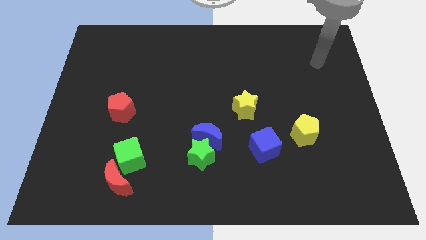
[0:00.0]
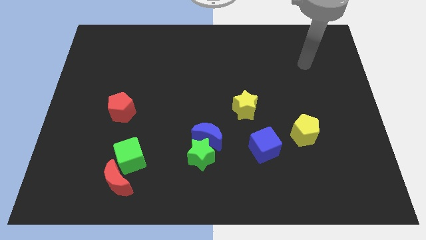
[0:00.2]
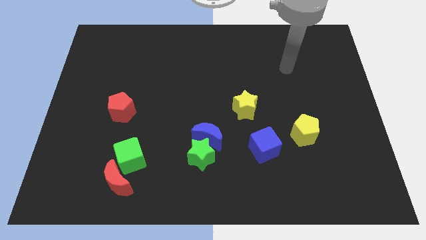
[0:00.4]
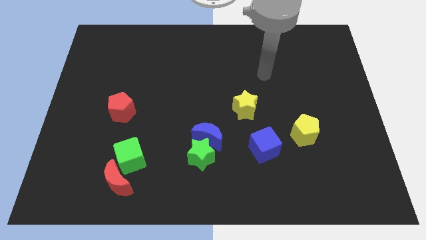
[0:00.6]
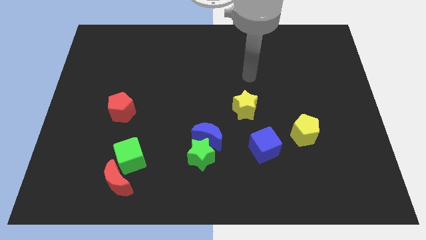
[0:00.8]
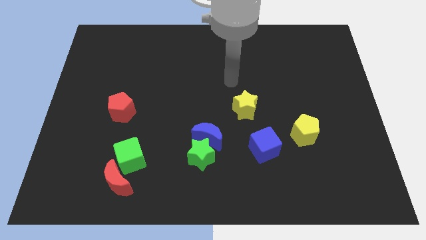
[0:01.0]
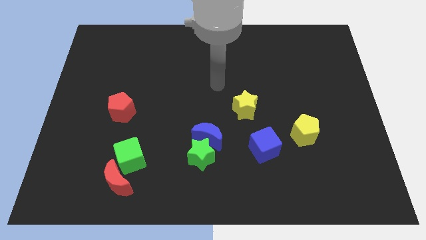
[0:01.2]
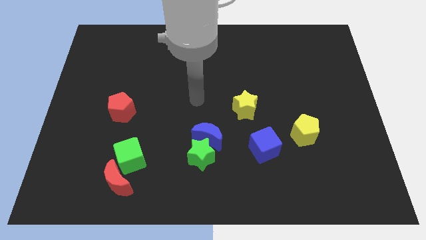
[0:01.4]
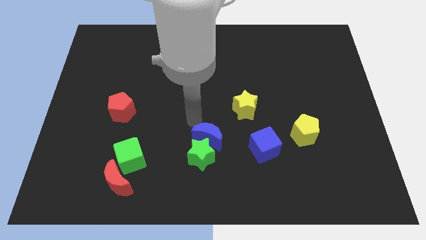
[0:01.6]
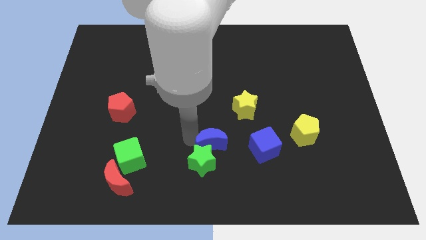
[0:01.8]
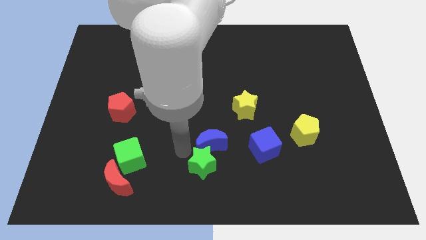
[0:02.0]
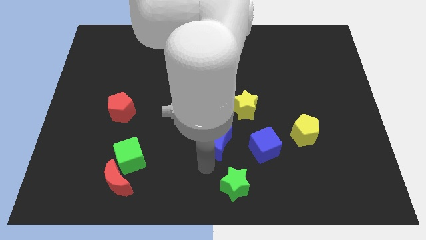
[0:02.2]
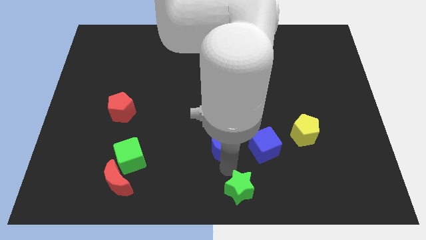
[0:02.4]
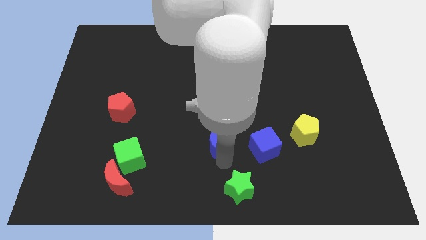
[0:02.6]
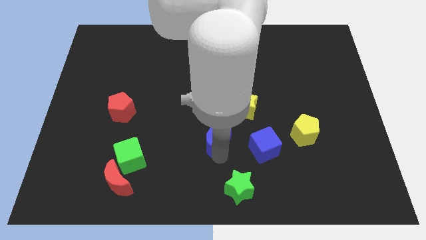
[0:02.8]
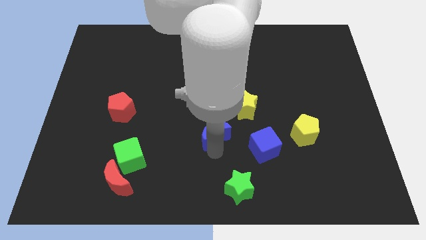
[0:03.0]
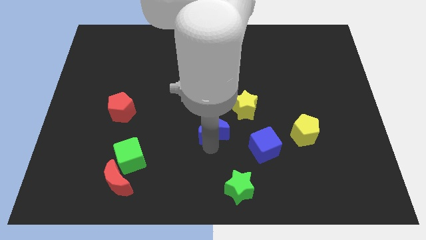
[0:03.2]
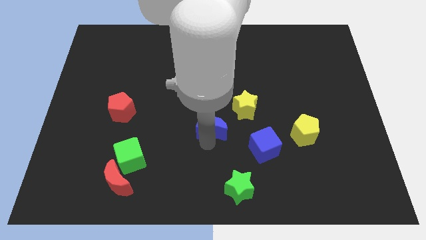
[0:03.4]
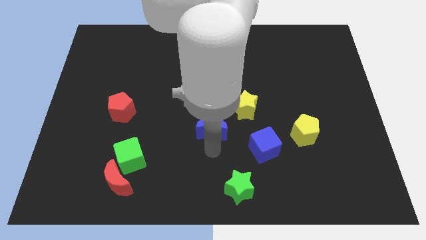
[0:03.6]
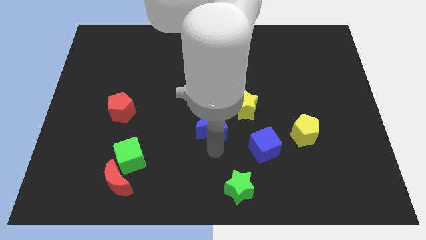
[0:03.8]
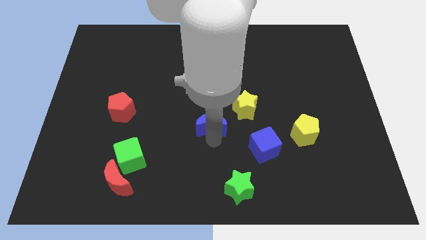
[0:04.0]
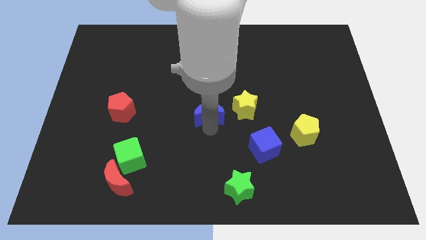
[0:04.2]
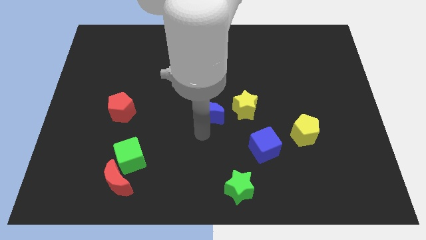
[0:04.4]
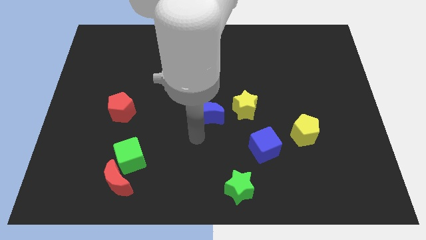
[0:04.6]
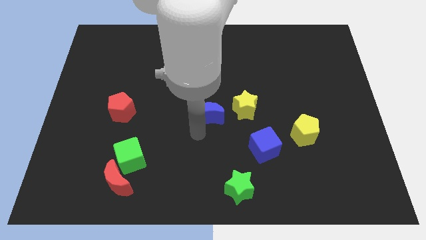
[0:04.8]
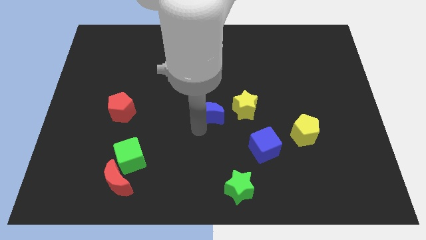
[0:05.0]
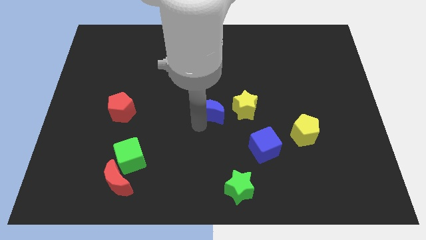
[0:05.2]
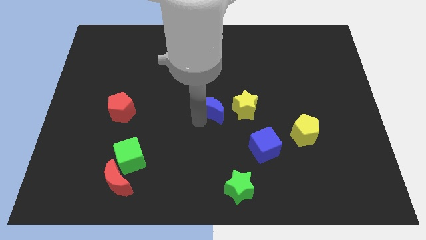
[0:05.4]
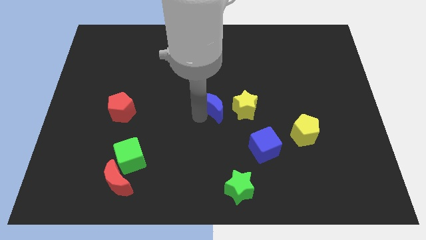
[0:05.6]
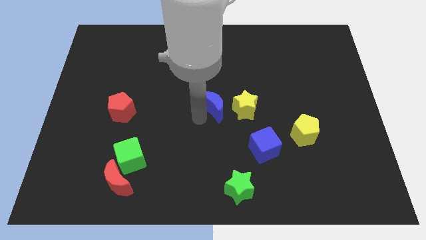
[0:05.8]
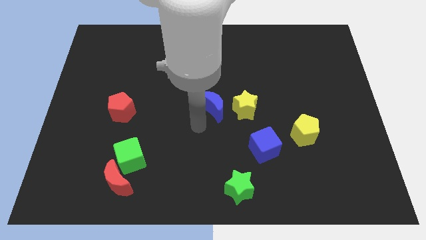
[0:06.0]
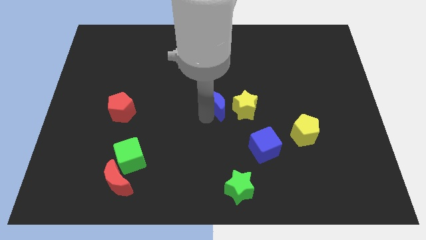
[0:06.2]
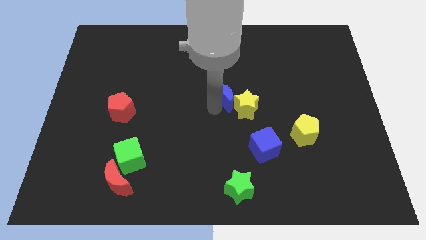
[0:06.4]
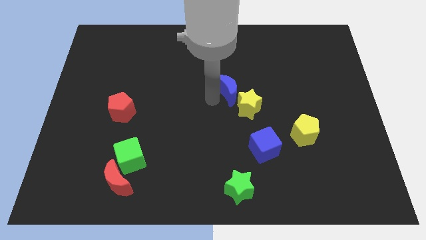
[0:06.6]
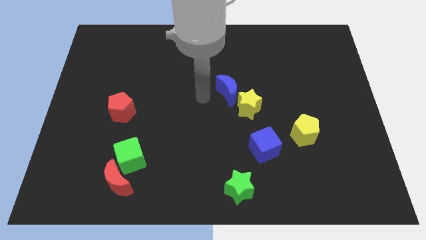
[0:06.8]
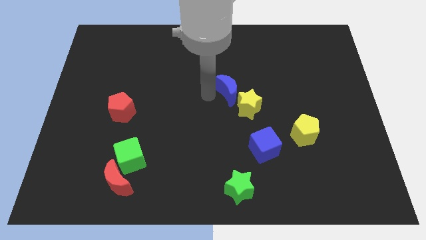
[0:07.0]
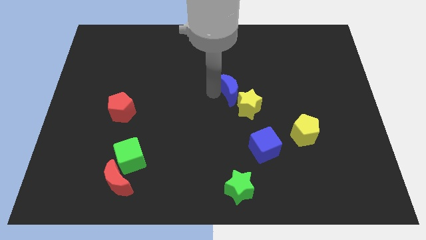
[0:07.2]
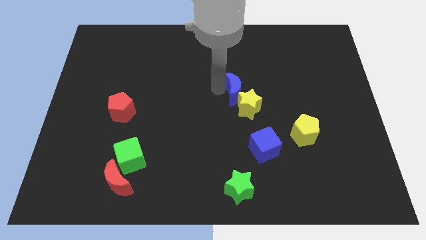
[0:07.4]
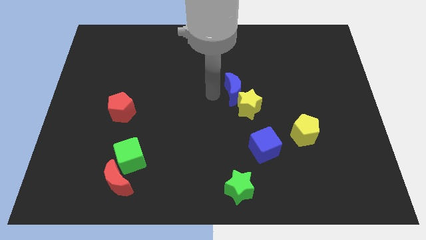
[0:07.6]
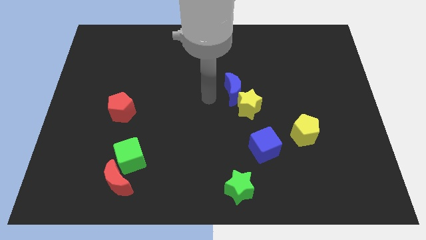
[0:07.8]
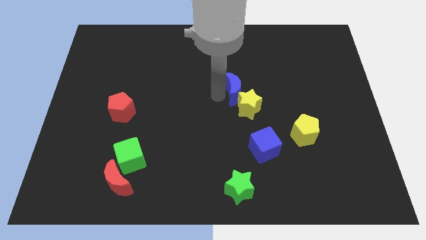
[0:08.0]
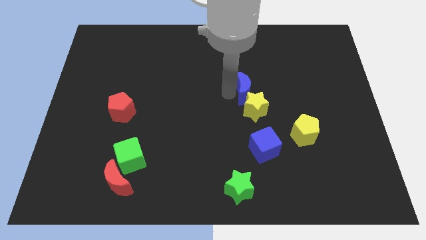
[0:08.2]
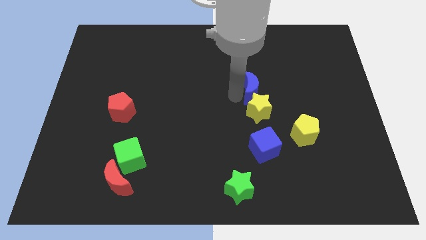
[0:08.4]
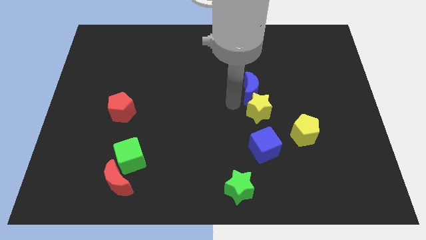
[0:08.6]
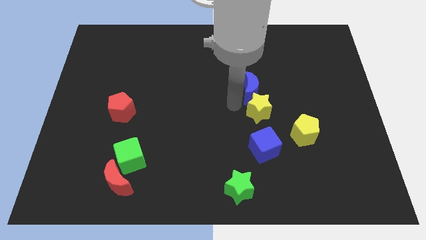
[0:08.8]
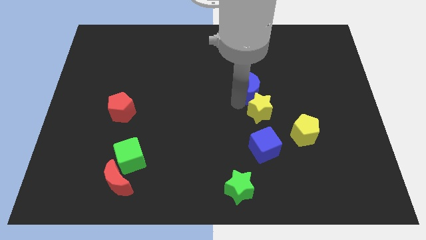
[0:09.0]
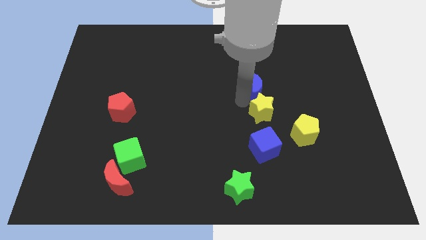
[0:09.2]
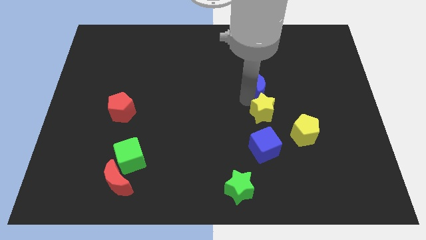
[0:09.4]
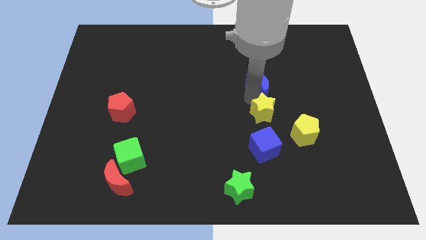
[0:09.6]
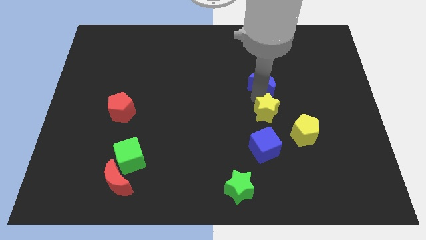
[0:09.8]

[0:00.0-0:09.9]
move the blue moon up and right

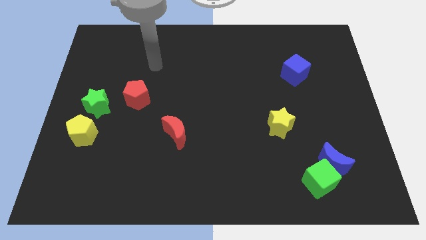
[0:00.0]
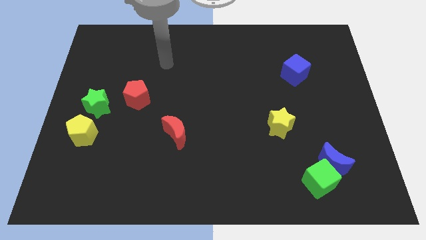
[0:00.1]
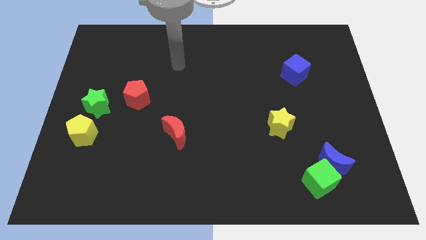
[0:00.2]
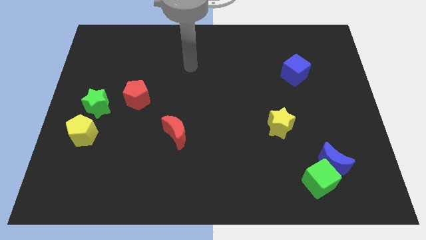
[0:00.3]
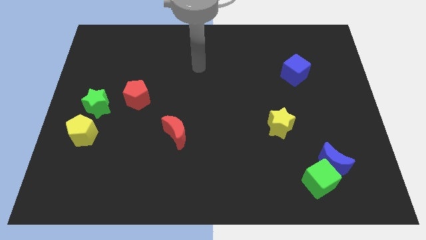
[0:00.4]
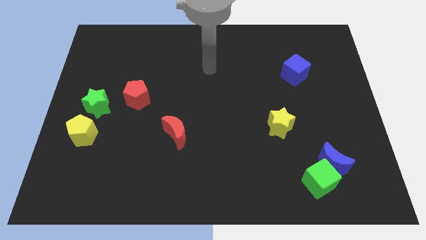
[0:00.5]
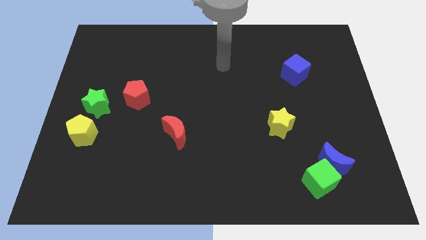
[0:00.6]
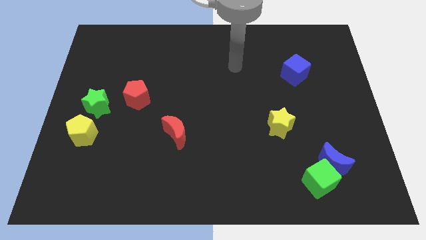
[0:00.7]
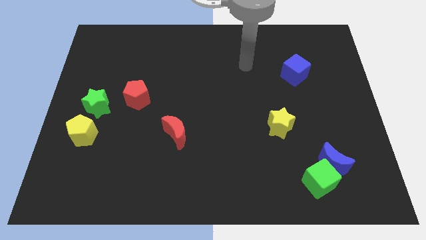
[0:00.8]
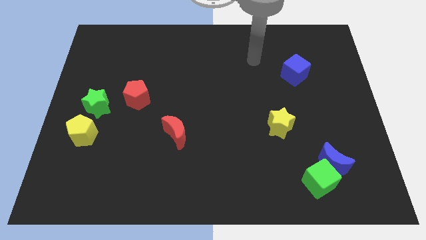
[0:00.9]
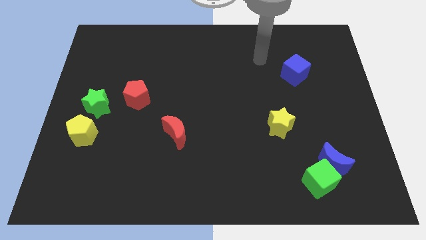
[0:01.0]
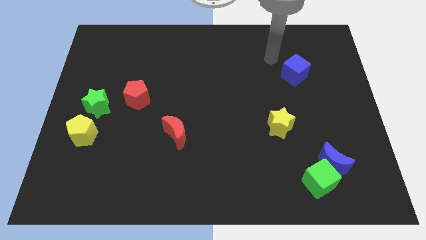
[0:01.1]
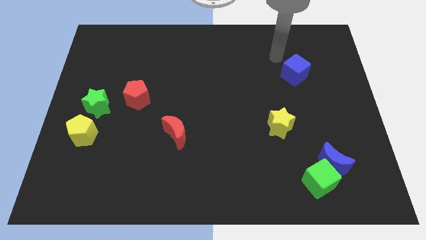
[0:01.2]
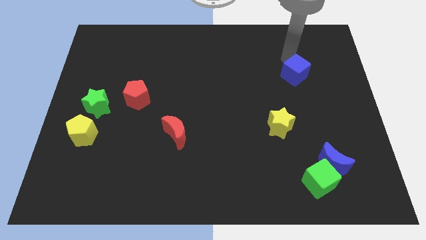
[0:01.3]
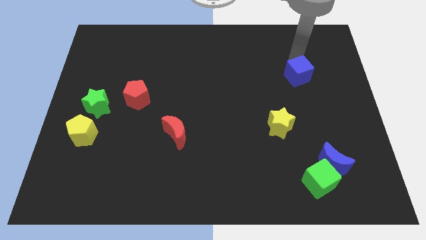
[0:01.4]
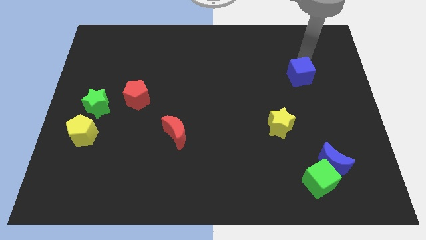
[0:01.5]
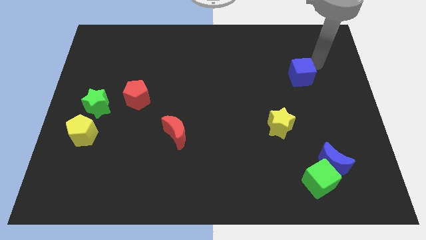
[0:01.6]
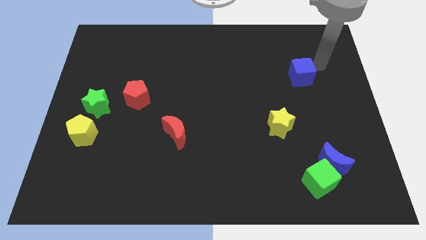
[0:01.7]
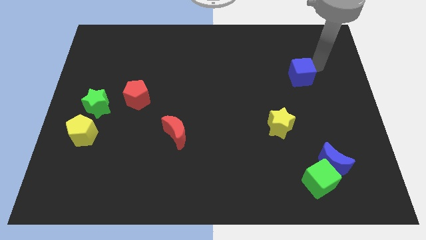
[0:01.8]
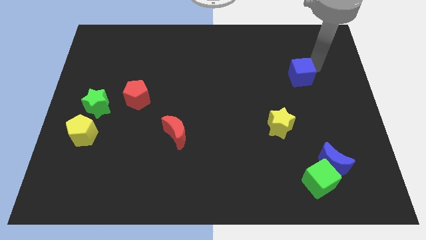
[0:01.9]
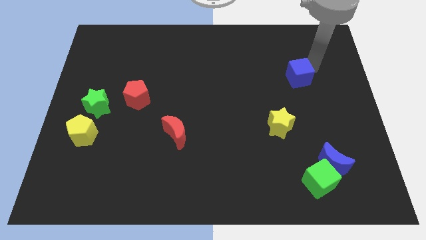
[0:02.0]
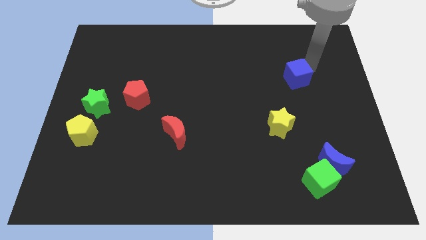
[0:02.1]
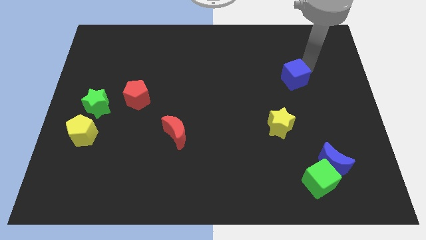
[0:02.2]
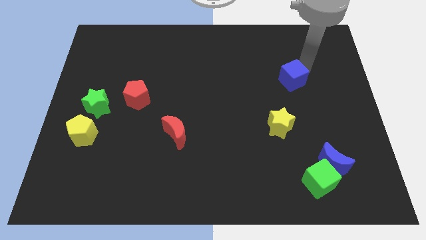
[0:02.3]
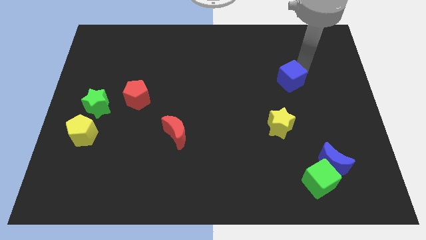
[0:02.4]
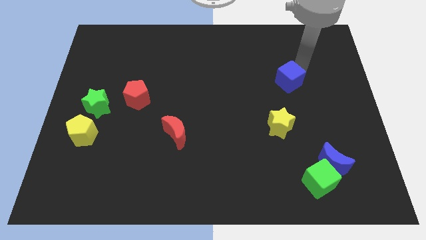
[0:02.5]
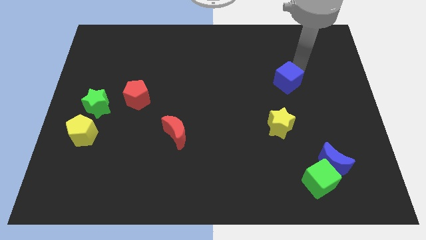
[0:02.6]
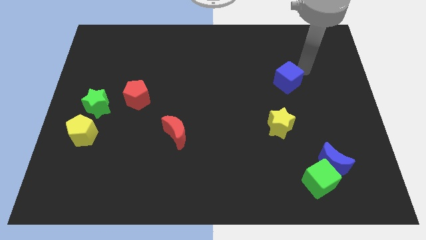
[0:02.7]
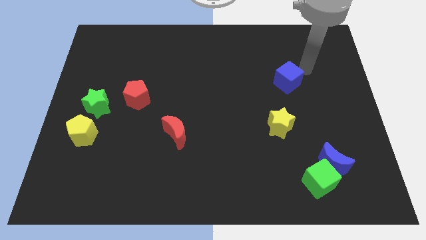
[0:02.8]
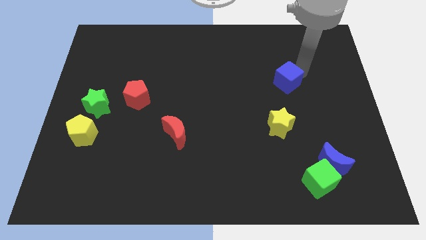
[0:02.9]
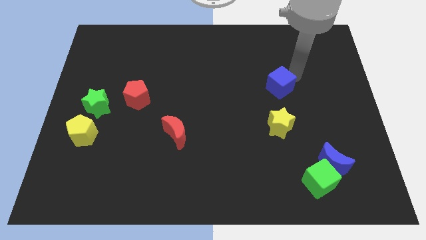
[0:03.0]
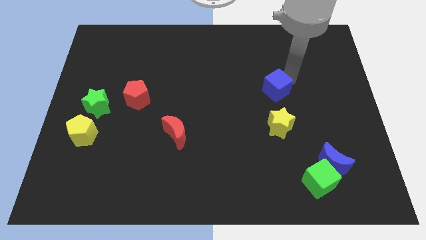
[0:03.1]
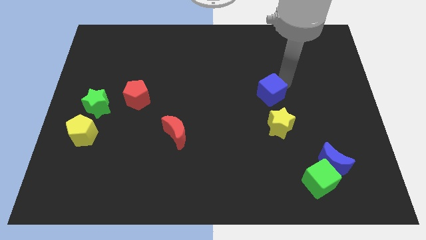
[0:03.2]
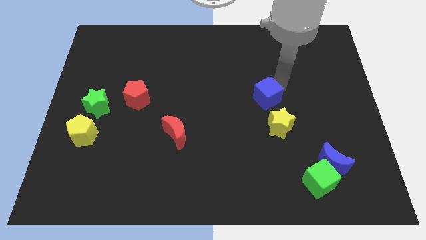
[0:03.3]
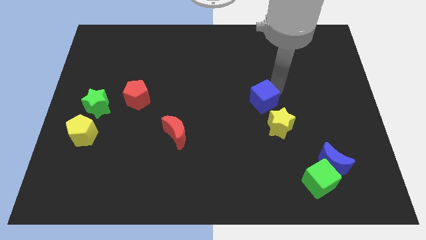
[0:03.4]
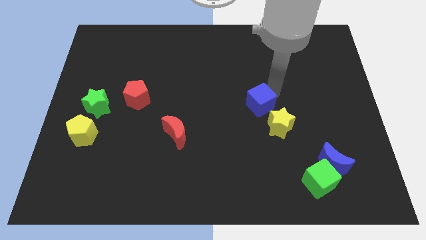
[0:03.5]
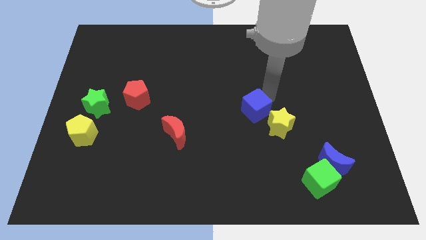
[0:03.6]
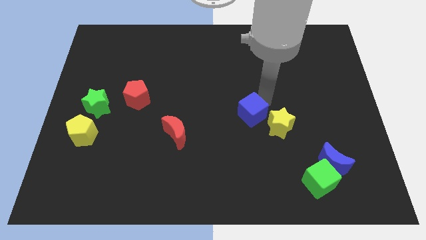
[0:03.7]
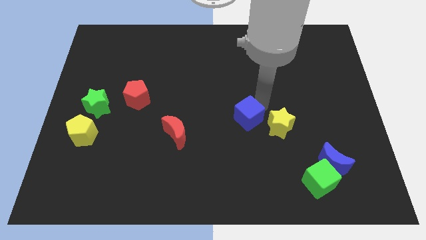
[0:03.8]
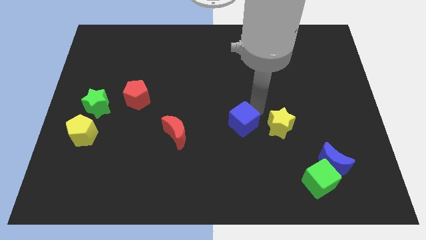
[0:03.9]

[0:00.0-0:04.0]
move the blue cube down and then to the left
